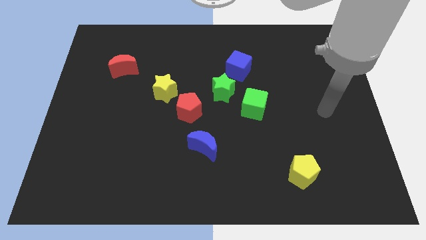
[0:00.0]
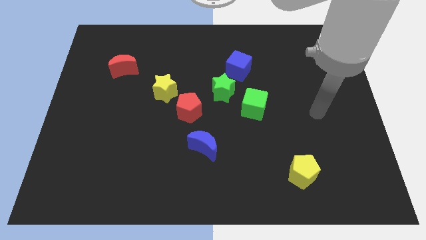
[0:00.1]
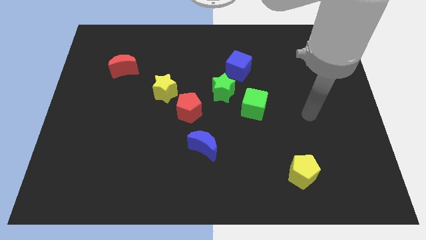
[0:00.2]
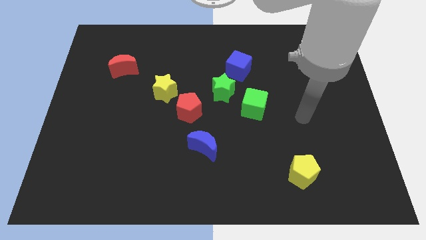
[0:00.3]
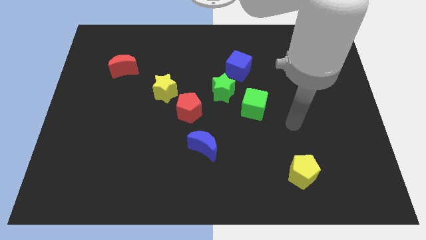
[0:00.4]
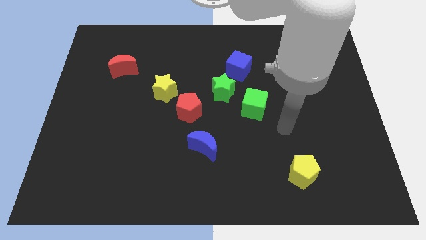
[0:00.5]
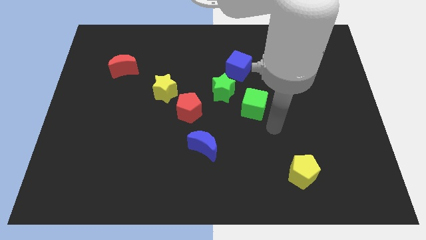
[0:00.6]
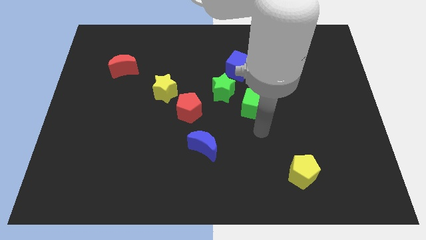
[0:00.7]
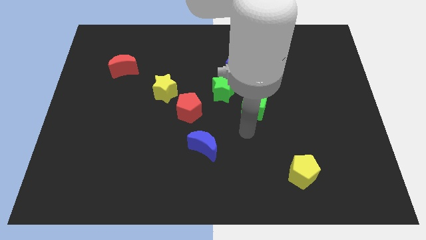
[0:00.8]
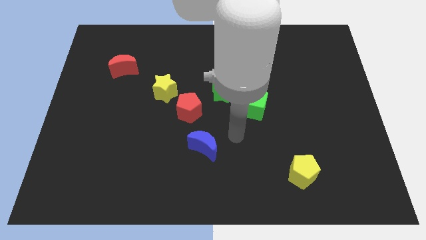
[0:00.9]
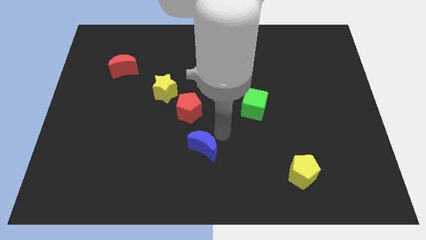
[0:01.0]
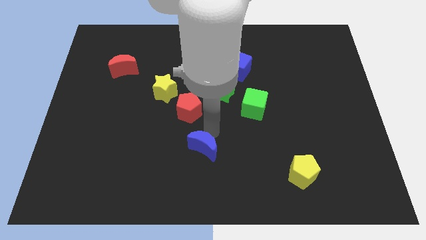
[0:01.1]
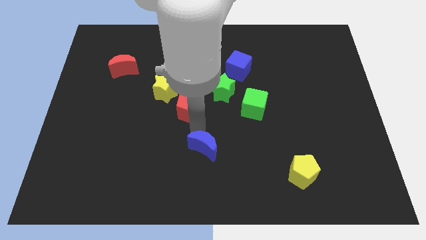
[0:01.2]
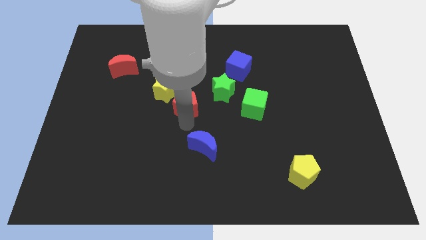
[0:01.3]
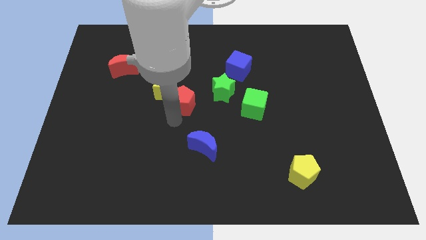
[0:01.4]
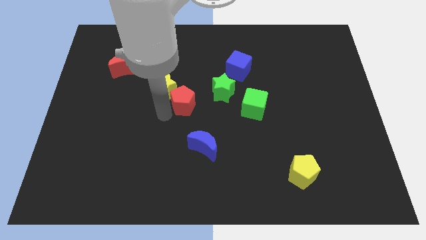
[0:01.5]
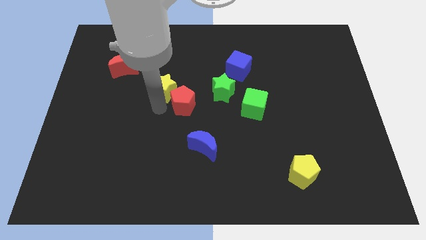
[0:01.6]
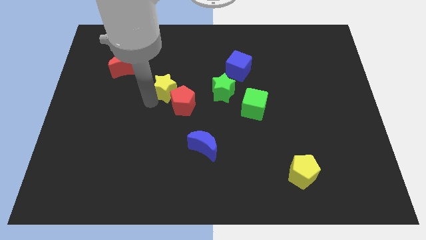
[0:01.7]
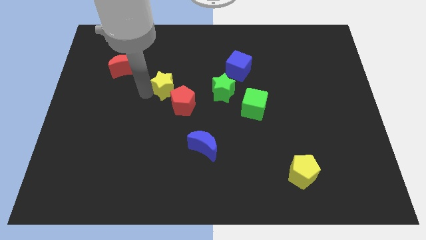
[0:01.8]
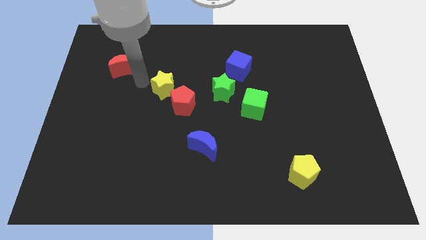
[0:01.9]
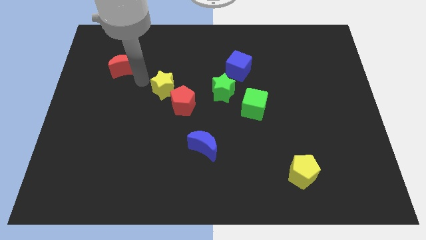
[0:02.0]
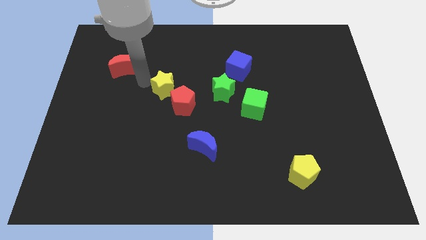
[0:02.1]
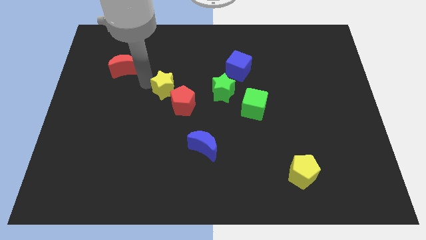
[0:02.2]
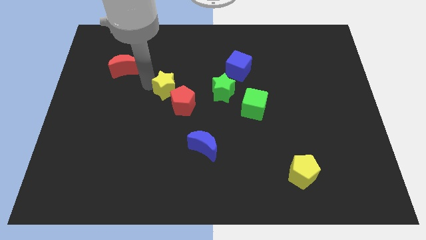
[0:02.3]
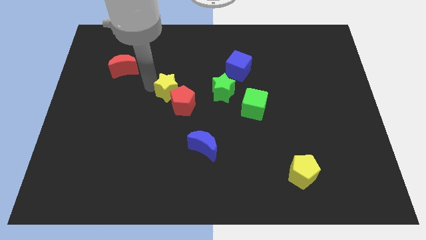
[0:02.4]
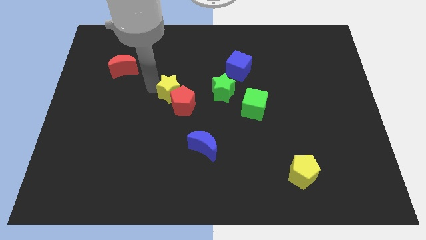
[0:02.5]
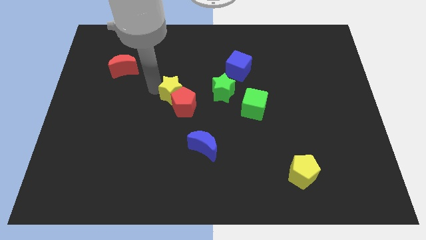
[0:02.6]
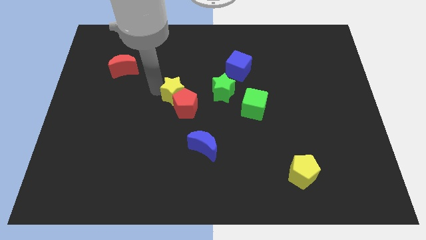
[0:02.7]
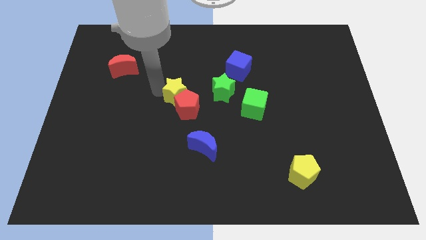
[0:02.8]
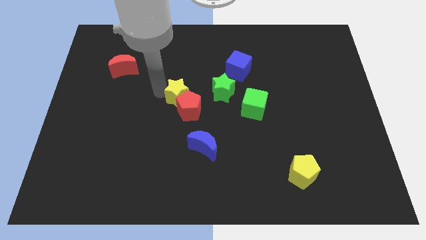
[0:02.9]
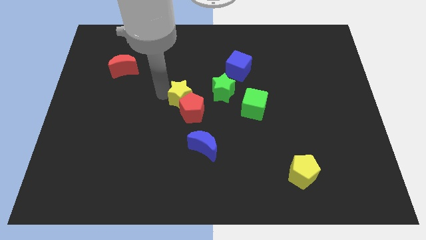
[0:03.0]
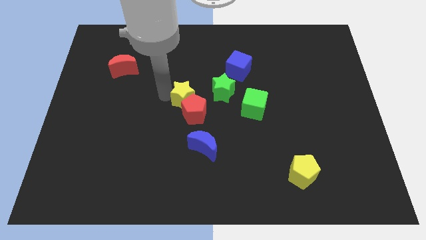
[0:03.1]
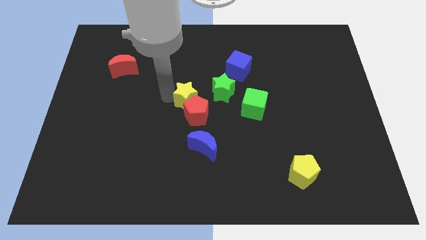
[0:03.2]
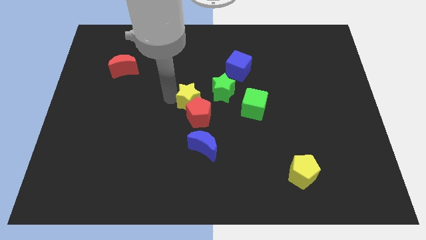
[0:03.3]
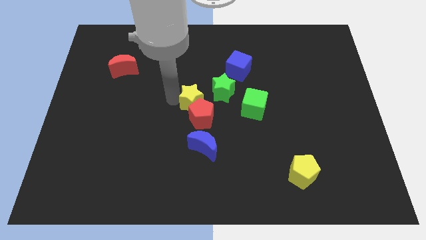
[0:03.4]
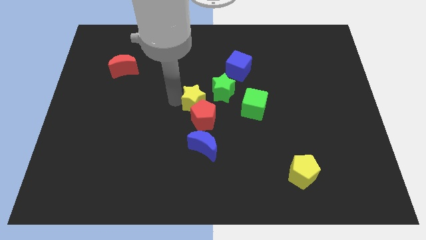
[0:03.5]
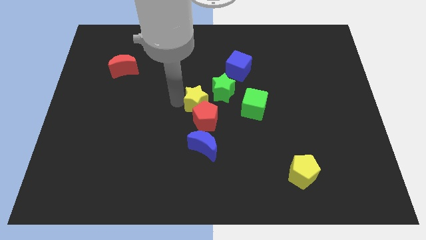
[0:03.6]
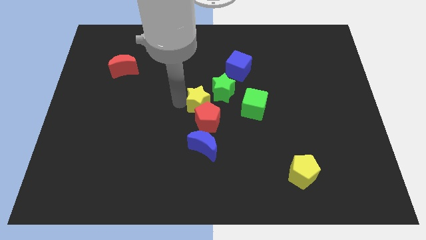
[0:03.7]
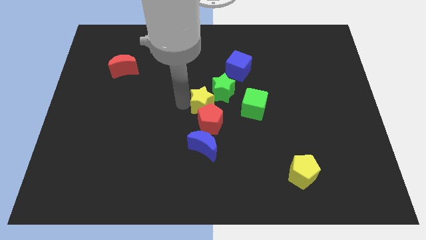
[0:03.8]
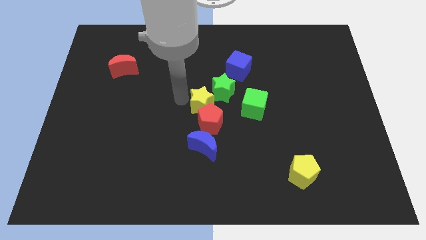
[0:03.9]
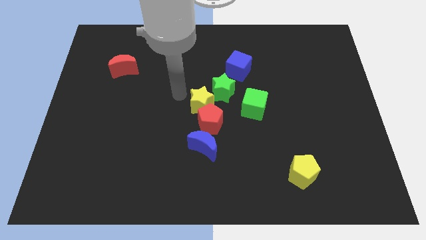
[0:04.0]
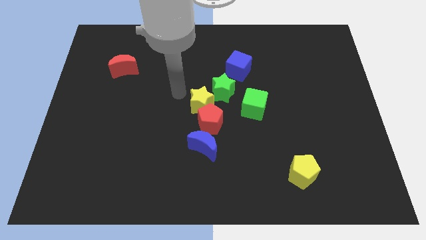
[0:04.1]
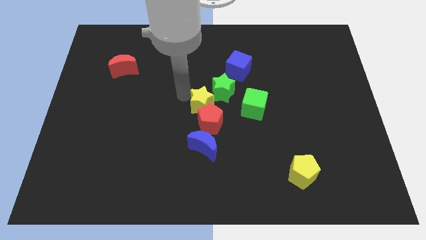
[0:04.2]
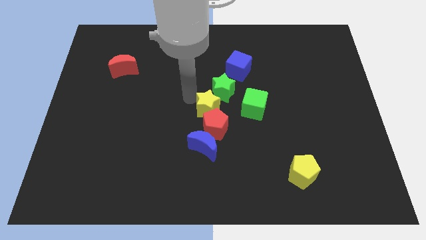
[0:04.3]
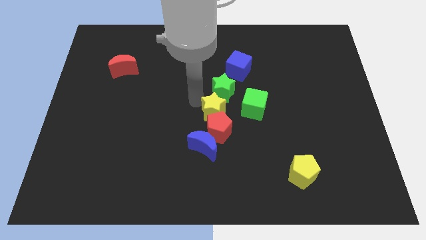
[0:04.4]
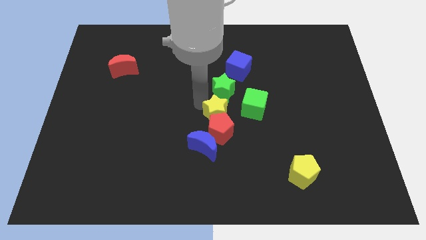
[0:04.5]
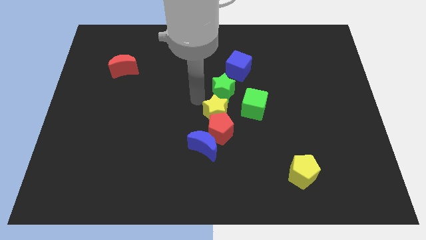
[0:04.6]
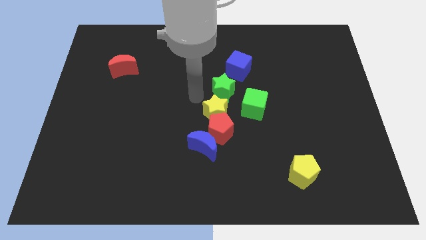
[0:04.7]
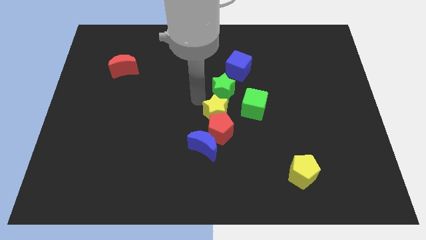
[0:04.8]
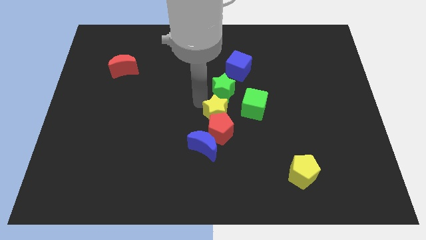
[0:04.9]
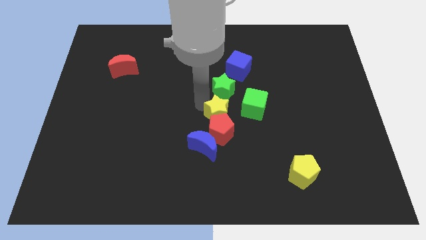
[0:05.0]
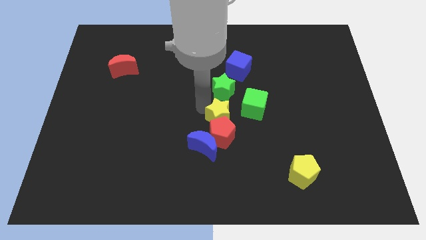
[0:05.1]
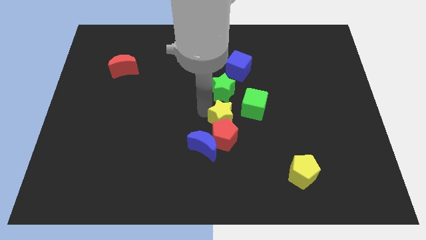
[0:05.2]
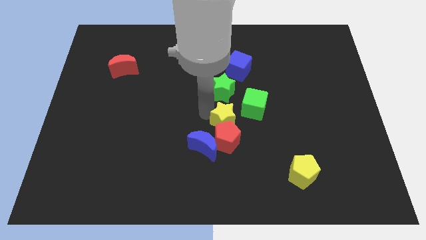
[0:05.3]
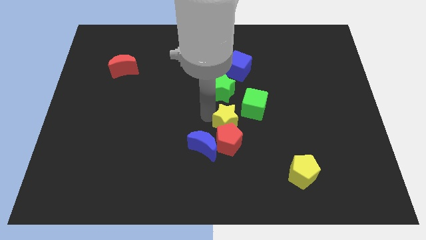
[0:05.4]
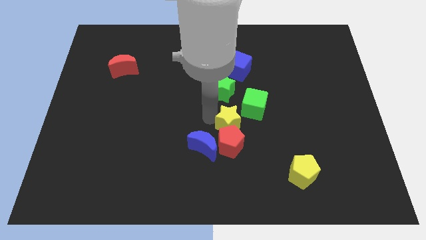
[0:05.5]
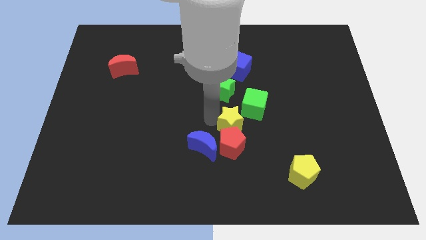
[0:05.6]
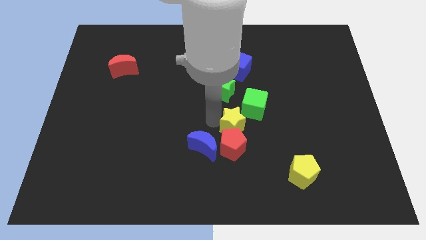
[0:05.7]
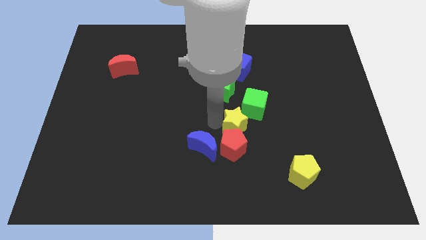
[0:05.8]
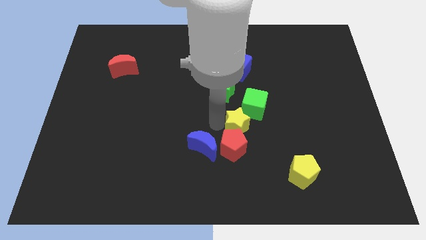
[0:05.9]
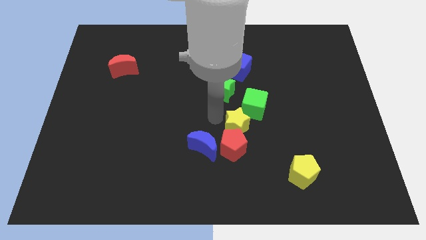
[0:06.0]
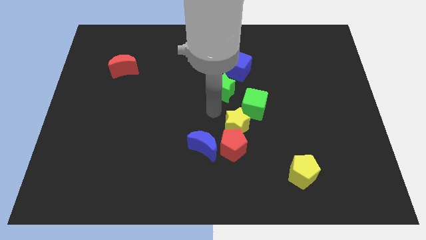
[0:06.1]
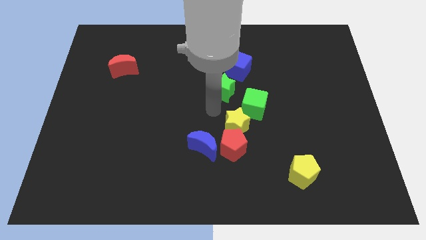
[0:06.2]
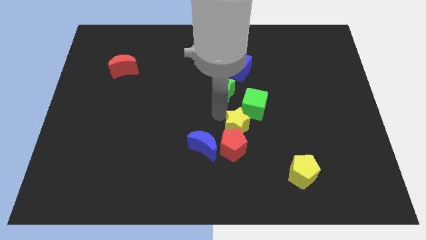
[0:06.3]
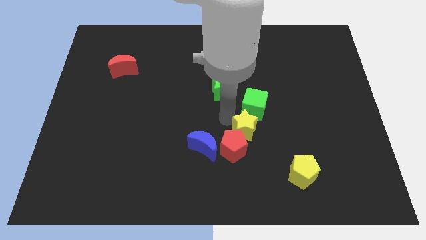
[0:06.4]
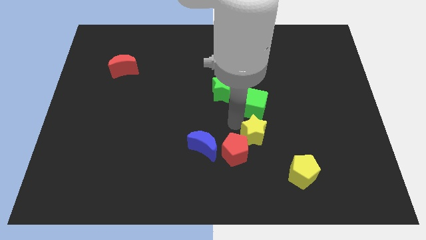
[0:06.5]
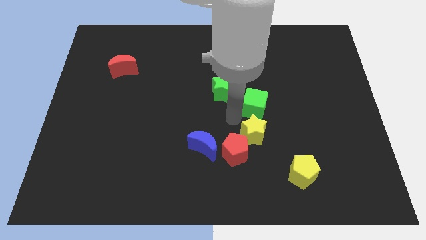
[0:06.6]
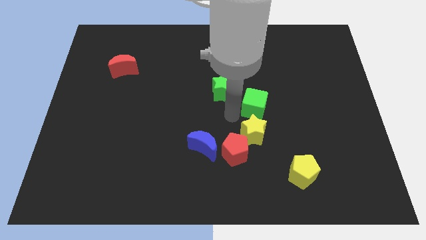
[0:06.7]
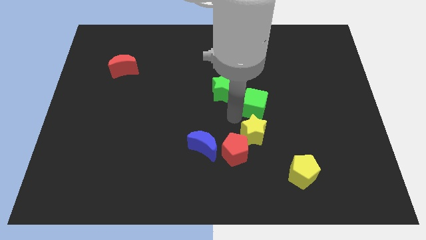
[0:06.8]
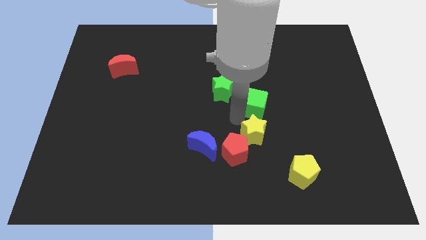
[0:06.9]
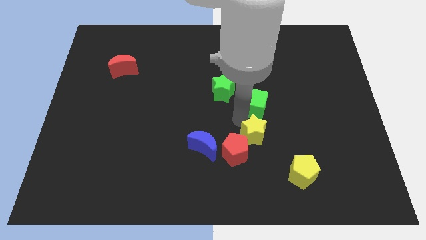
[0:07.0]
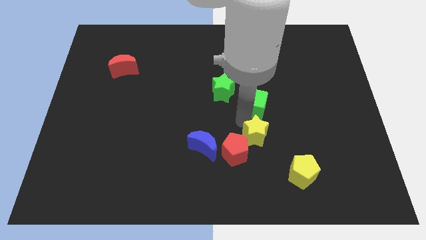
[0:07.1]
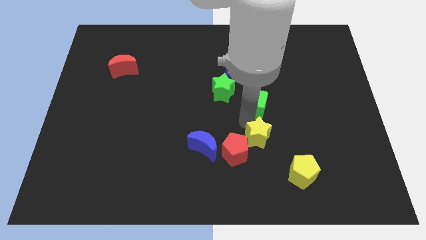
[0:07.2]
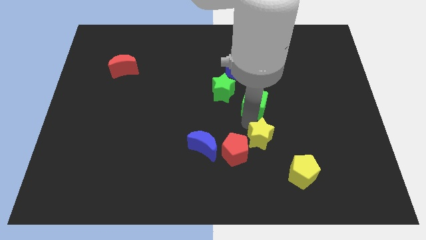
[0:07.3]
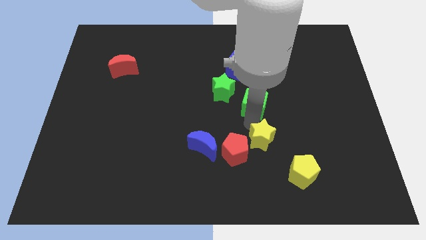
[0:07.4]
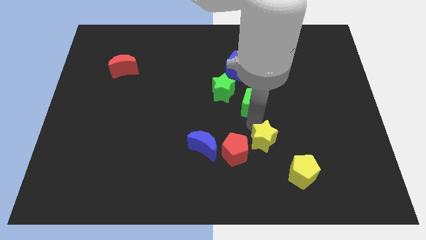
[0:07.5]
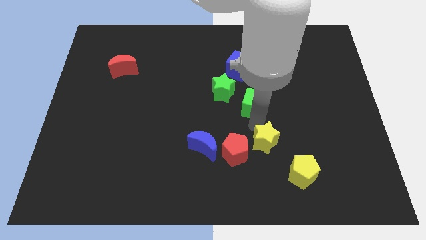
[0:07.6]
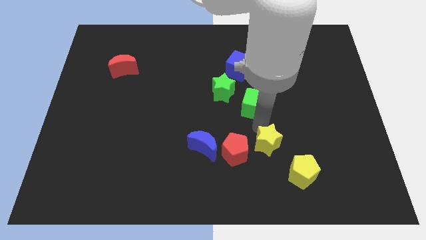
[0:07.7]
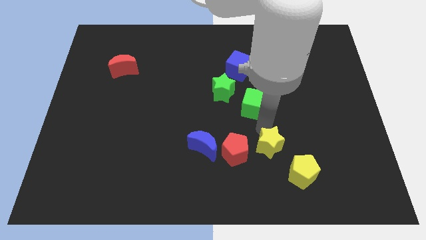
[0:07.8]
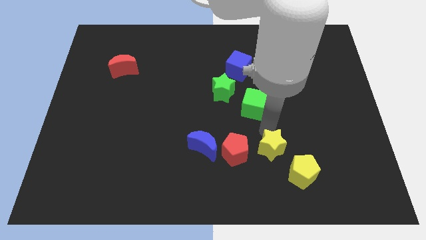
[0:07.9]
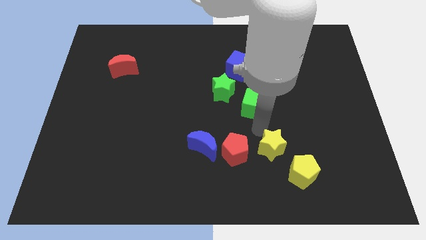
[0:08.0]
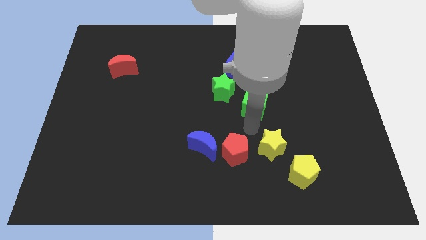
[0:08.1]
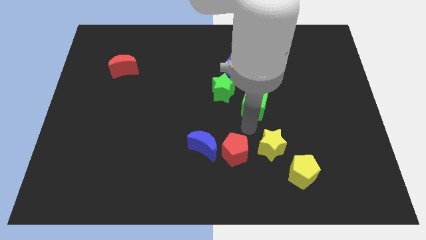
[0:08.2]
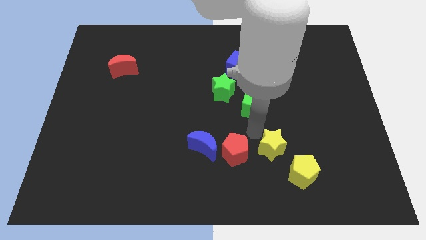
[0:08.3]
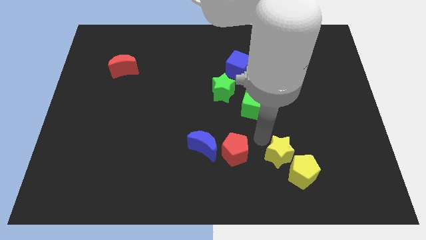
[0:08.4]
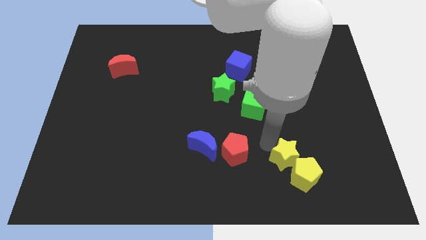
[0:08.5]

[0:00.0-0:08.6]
put the yellow star next to the yellow pentagon
